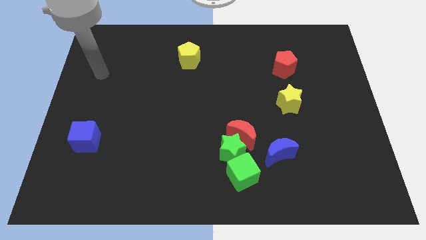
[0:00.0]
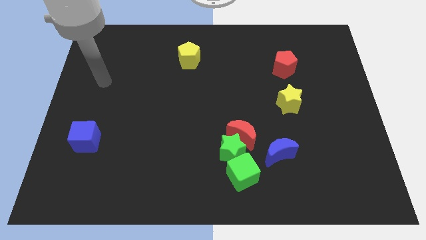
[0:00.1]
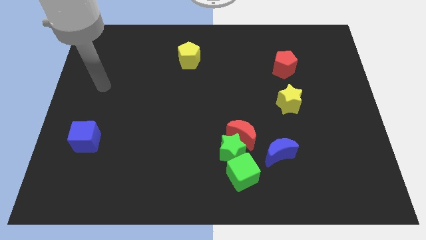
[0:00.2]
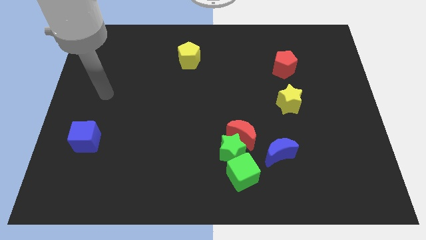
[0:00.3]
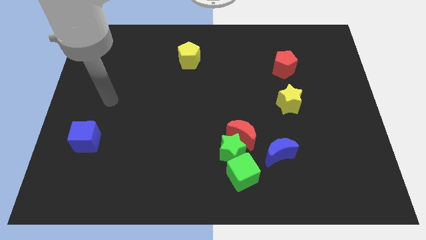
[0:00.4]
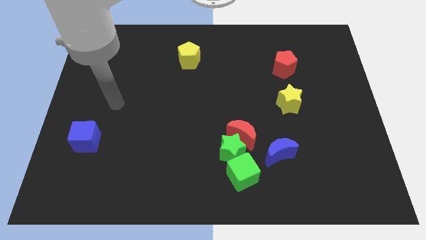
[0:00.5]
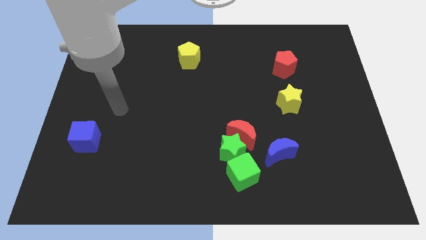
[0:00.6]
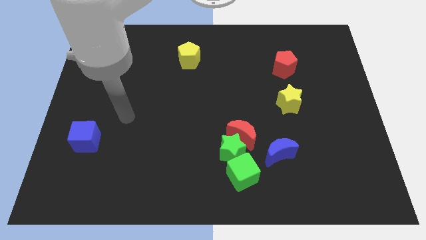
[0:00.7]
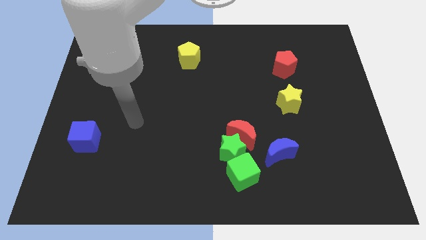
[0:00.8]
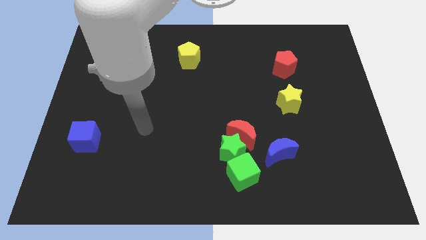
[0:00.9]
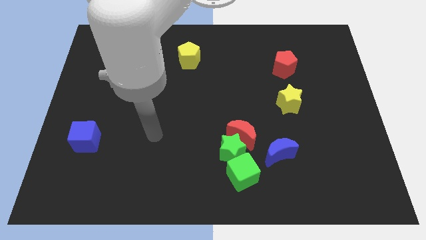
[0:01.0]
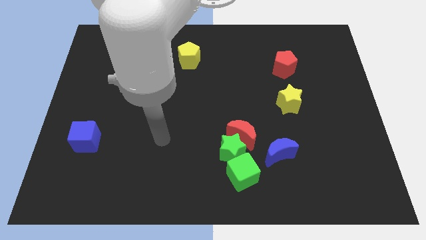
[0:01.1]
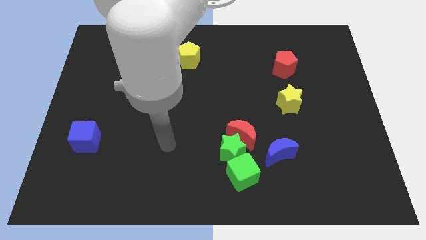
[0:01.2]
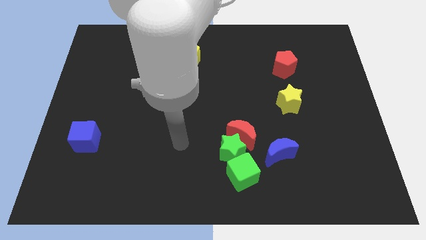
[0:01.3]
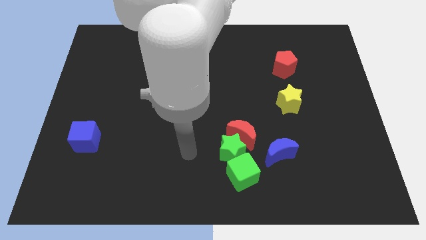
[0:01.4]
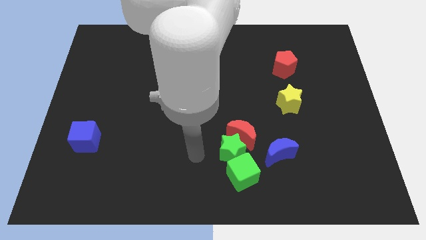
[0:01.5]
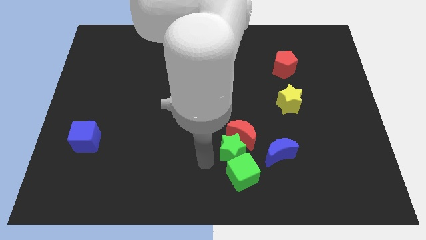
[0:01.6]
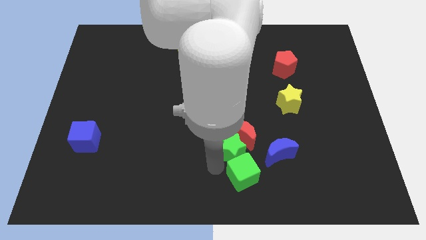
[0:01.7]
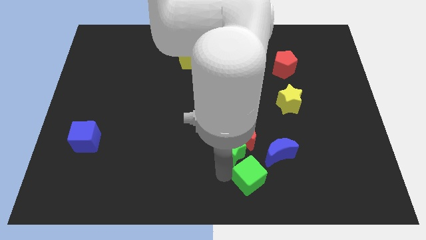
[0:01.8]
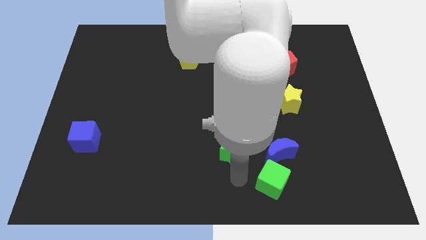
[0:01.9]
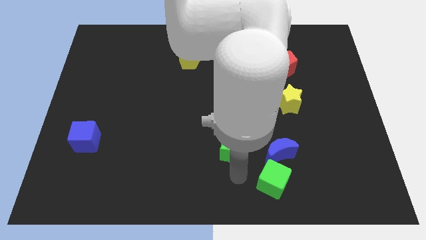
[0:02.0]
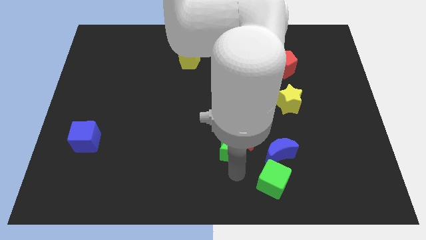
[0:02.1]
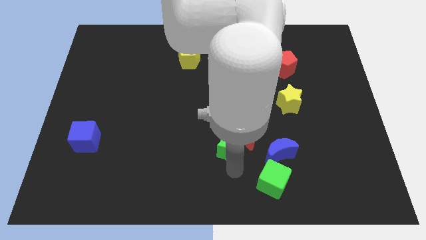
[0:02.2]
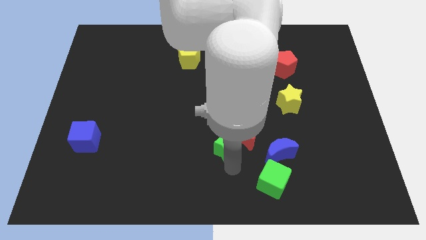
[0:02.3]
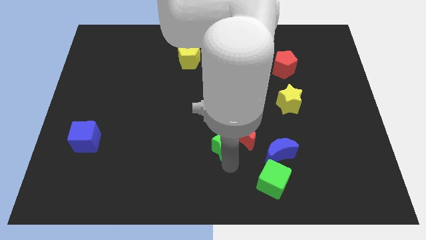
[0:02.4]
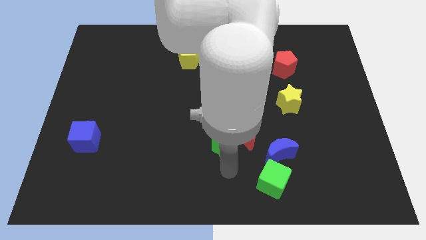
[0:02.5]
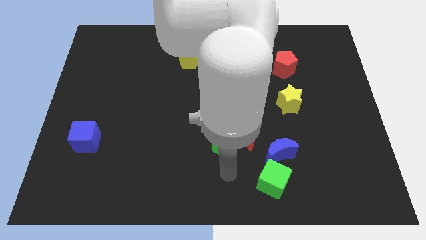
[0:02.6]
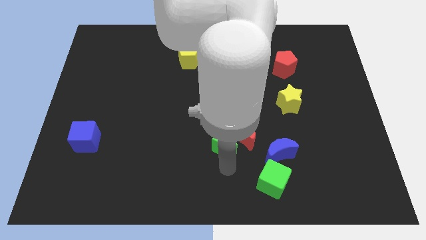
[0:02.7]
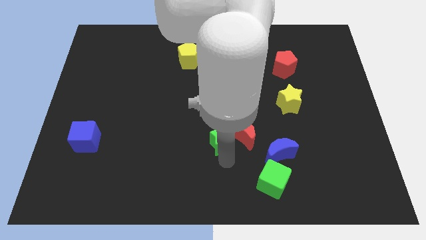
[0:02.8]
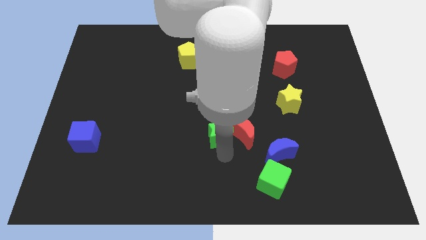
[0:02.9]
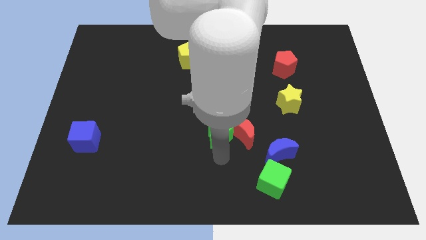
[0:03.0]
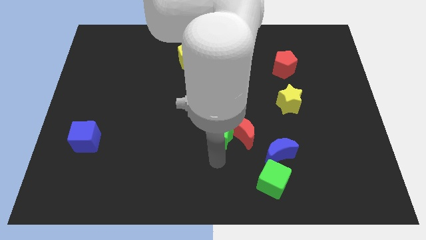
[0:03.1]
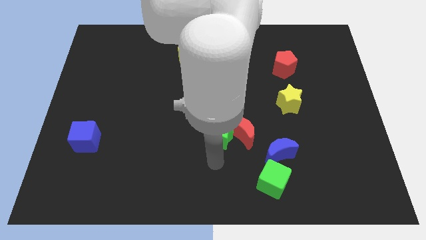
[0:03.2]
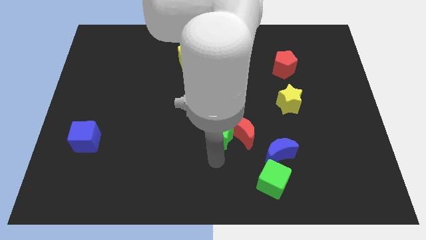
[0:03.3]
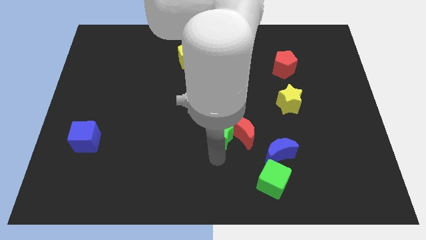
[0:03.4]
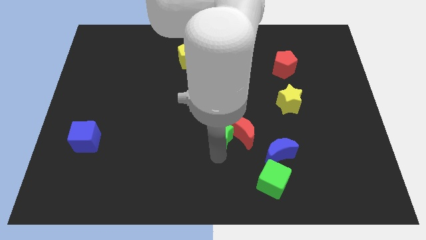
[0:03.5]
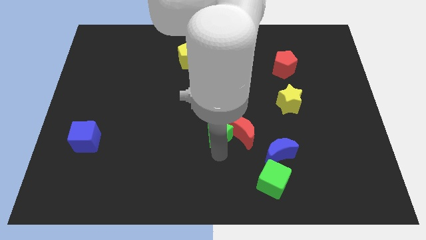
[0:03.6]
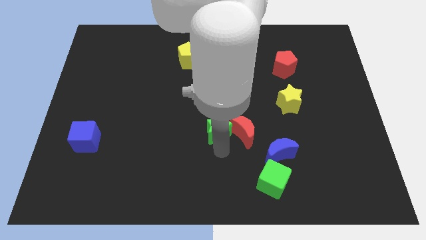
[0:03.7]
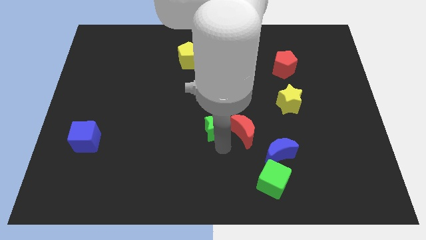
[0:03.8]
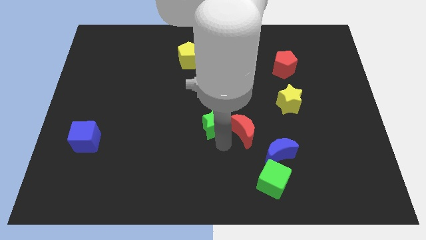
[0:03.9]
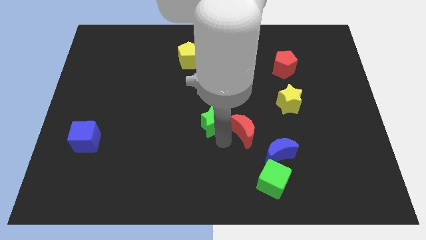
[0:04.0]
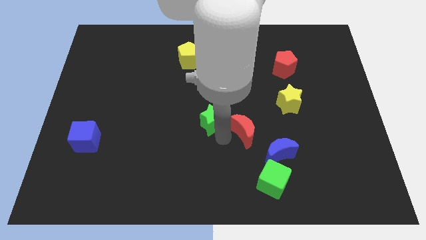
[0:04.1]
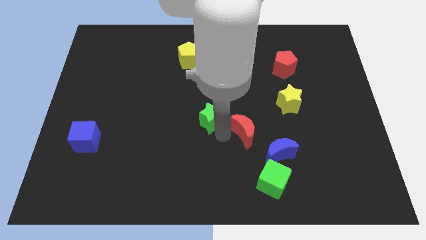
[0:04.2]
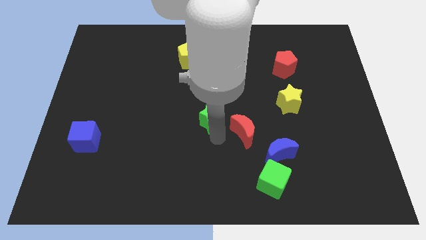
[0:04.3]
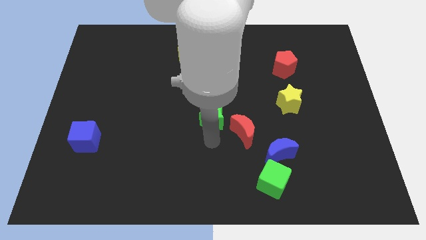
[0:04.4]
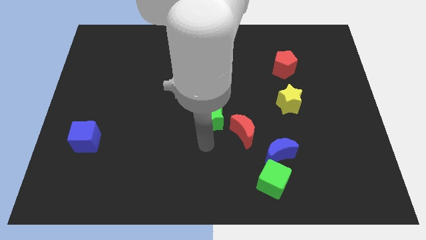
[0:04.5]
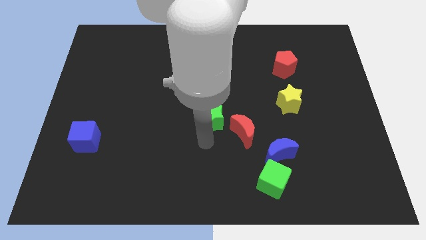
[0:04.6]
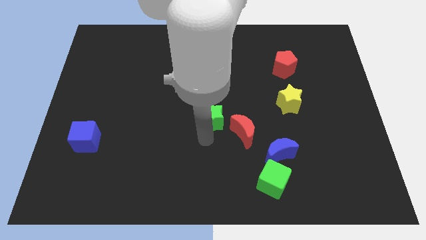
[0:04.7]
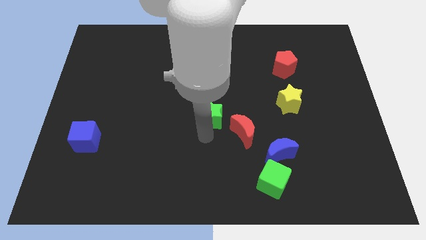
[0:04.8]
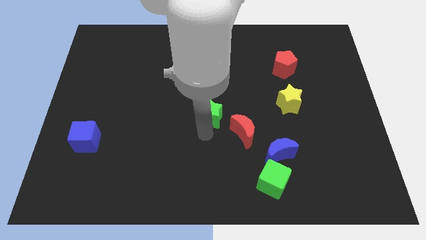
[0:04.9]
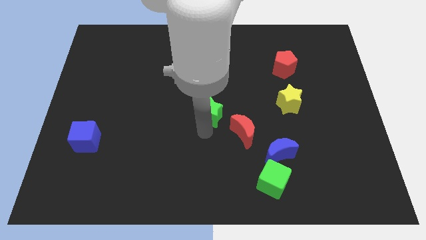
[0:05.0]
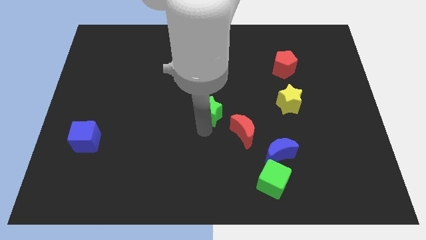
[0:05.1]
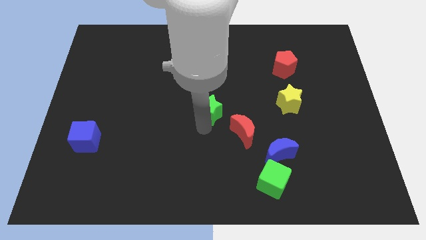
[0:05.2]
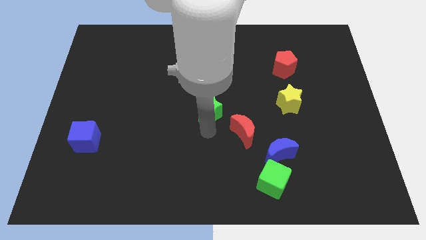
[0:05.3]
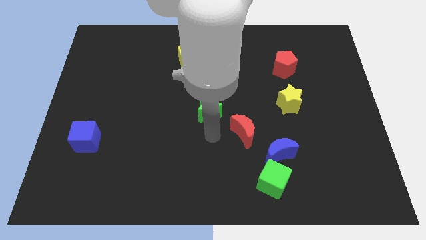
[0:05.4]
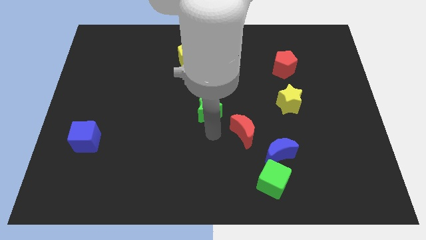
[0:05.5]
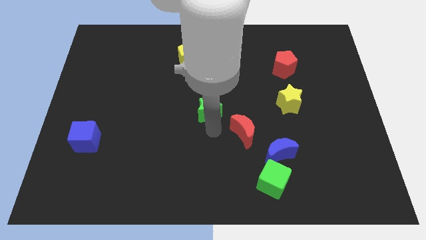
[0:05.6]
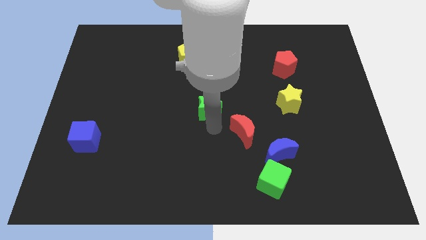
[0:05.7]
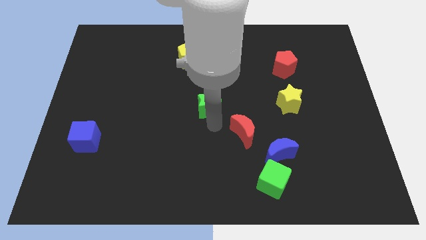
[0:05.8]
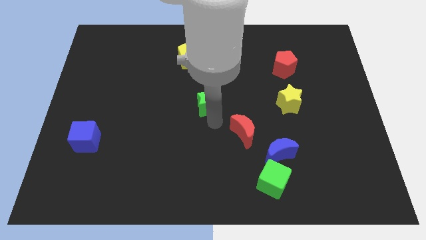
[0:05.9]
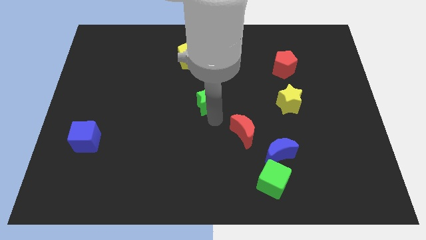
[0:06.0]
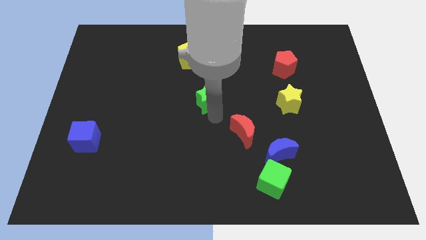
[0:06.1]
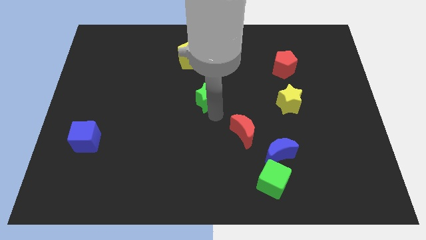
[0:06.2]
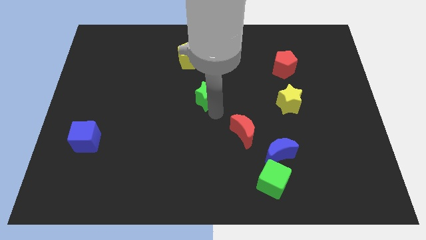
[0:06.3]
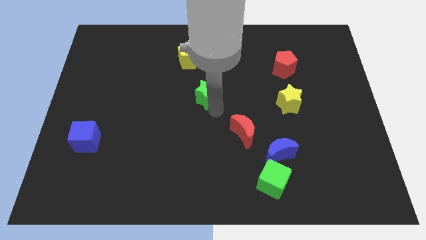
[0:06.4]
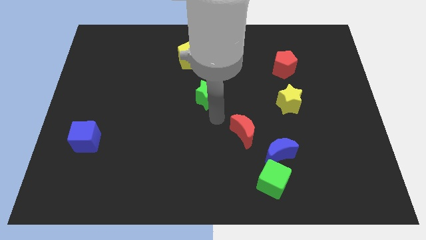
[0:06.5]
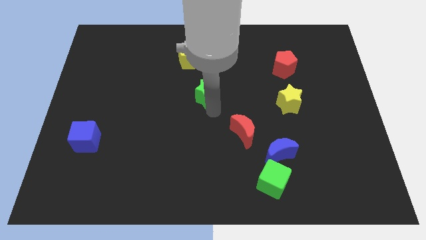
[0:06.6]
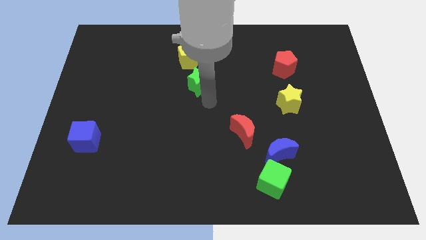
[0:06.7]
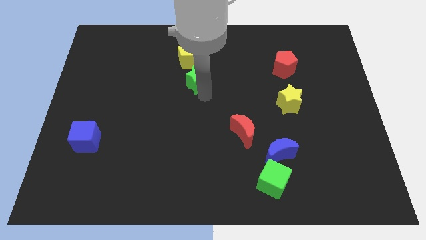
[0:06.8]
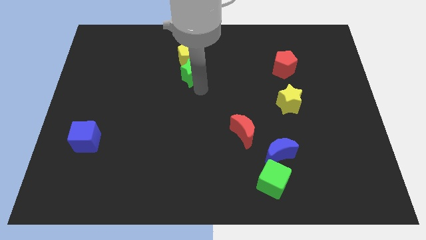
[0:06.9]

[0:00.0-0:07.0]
put the green star close to the yellow pentagon
